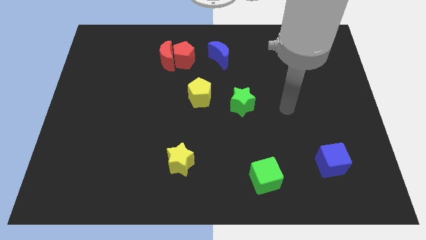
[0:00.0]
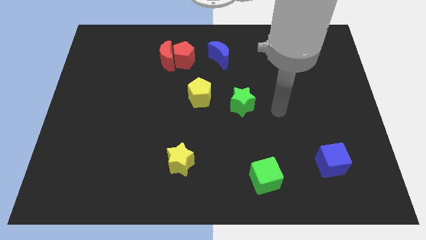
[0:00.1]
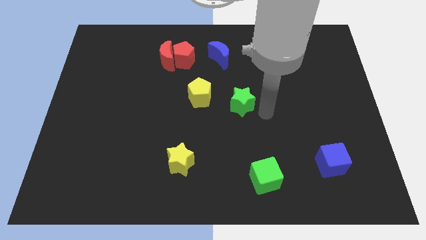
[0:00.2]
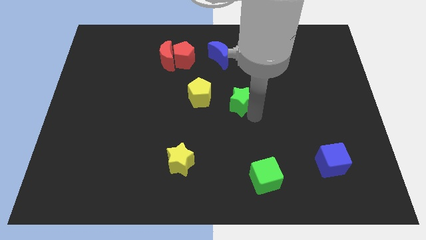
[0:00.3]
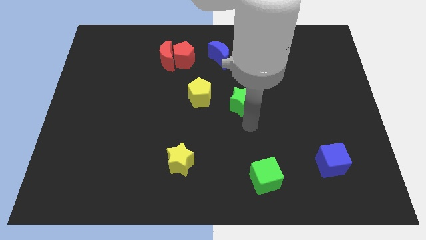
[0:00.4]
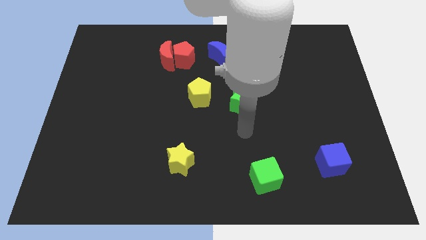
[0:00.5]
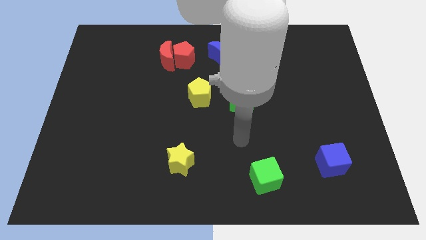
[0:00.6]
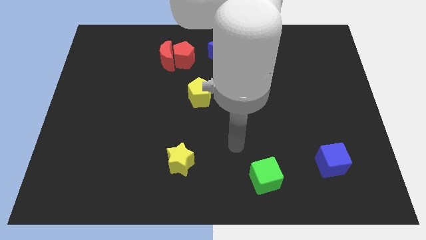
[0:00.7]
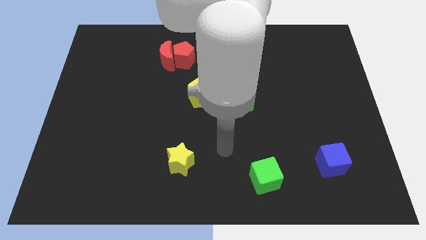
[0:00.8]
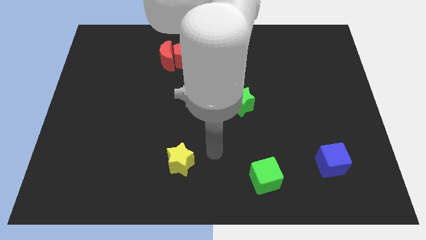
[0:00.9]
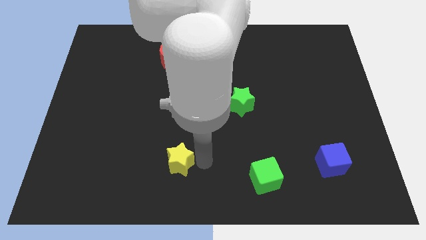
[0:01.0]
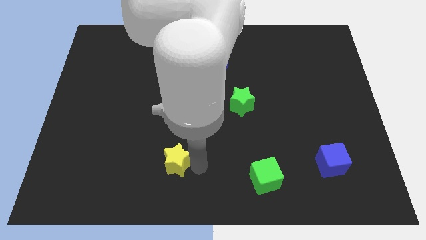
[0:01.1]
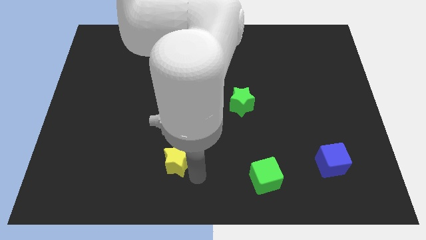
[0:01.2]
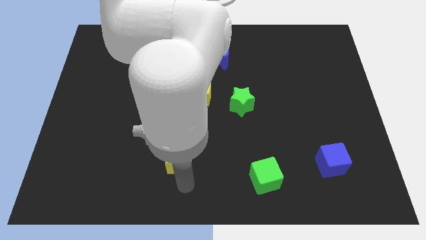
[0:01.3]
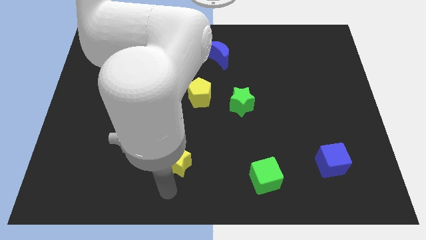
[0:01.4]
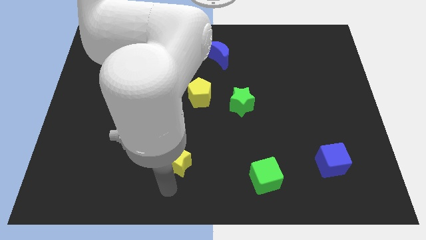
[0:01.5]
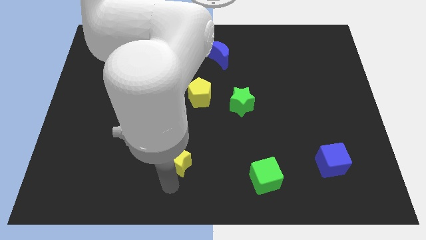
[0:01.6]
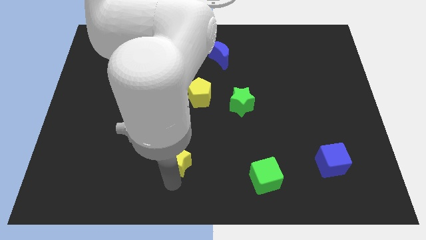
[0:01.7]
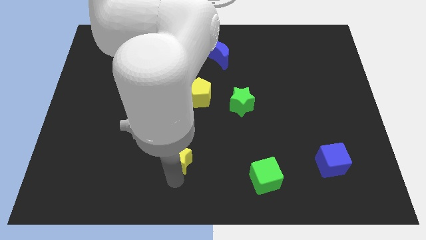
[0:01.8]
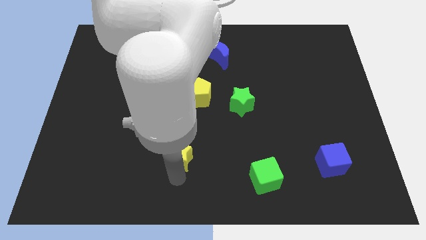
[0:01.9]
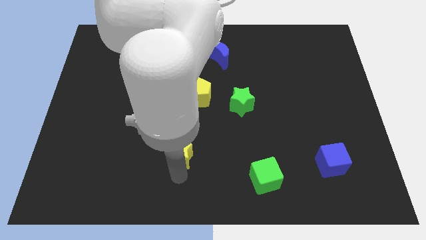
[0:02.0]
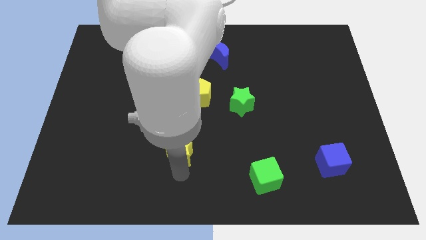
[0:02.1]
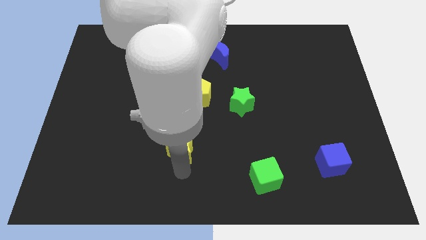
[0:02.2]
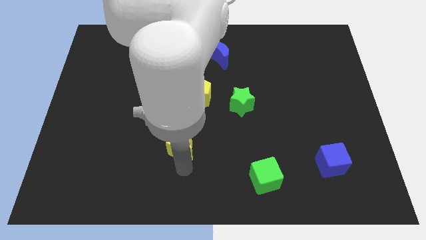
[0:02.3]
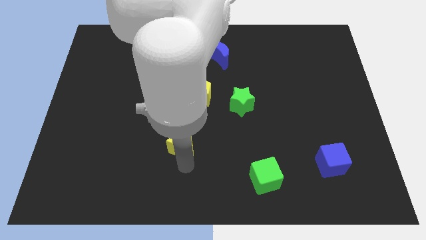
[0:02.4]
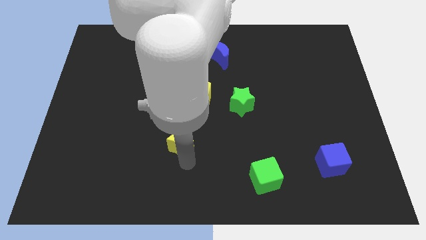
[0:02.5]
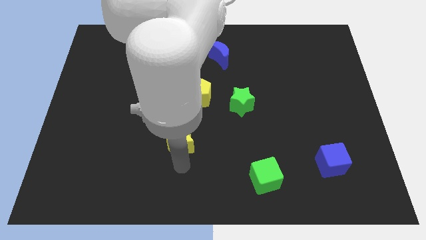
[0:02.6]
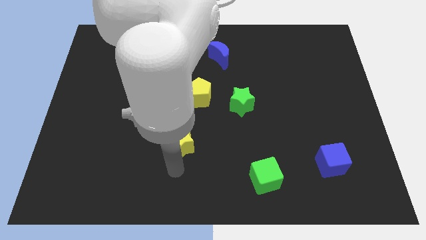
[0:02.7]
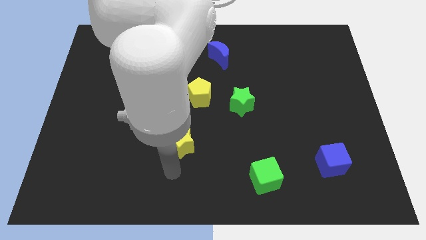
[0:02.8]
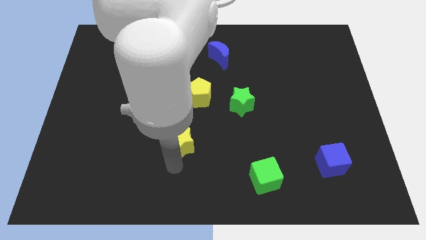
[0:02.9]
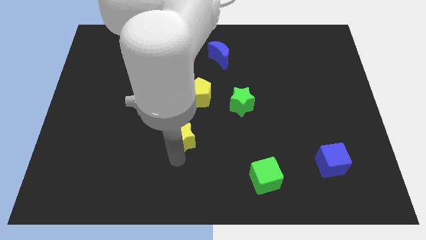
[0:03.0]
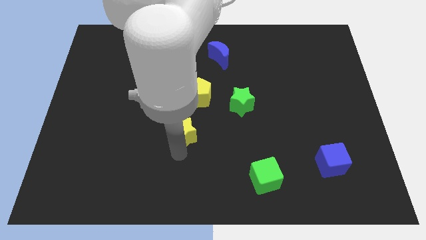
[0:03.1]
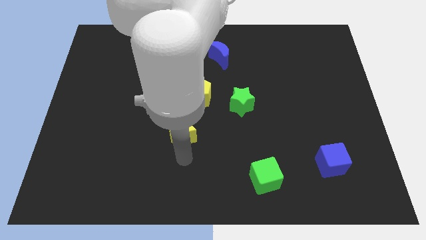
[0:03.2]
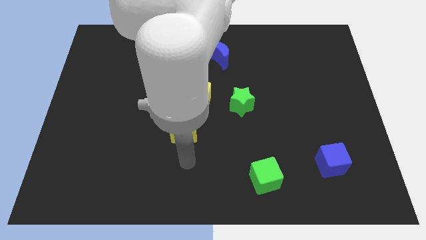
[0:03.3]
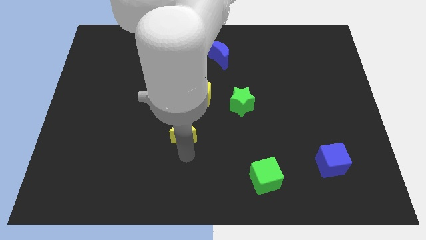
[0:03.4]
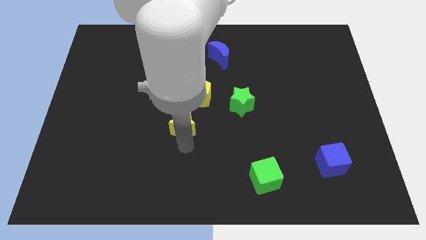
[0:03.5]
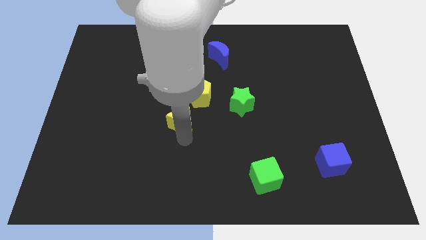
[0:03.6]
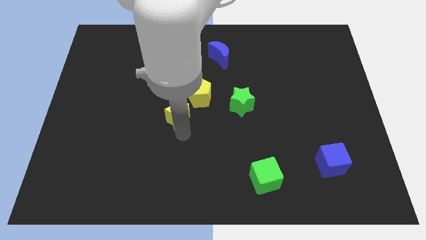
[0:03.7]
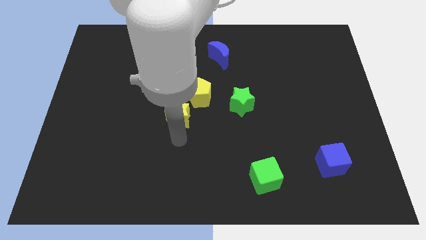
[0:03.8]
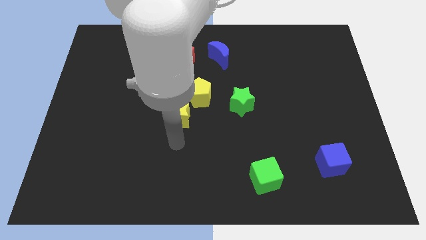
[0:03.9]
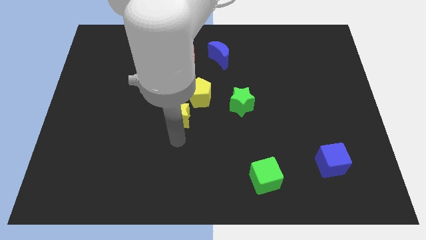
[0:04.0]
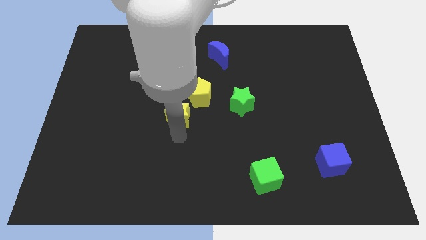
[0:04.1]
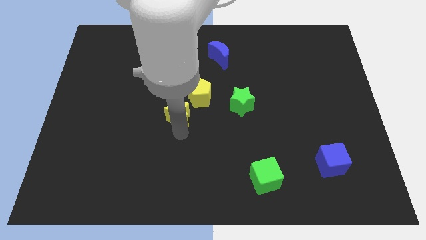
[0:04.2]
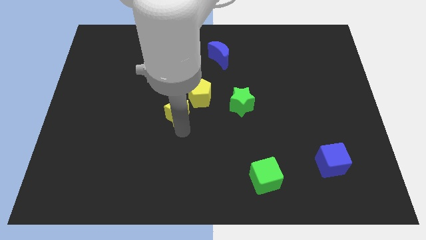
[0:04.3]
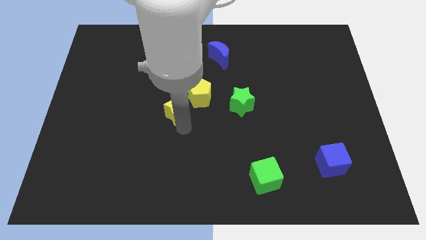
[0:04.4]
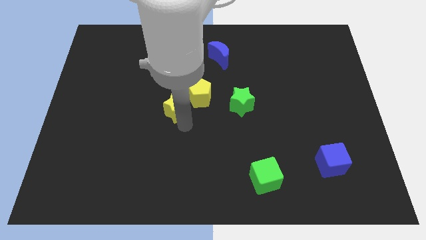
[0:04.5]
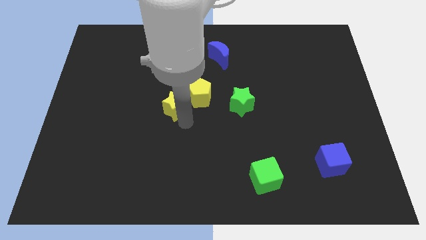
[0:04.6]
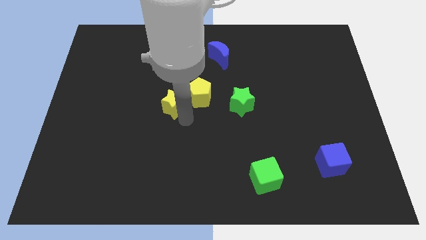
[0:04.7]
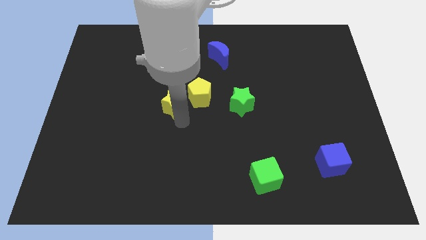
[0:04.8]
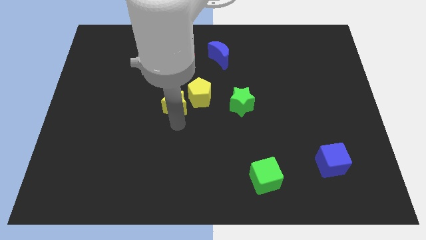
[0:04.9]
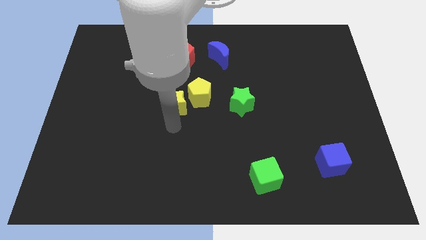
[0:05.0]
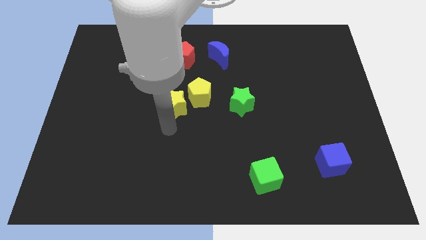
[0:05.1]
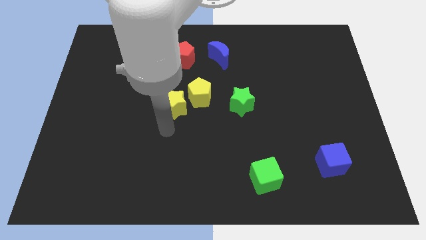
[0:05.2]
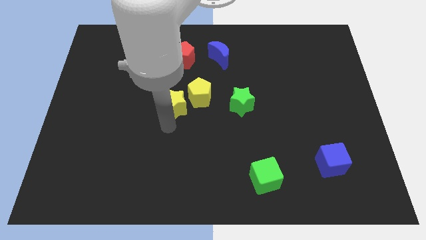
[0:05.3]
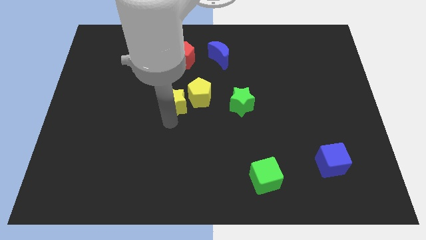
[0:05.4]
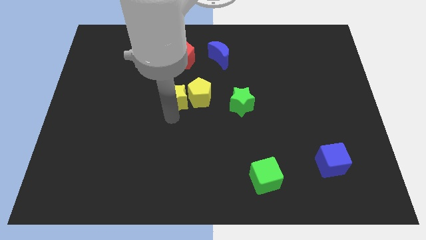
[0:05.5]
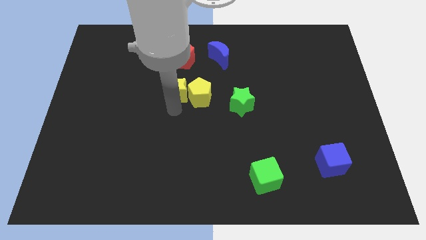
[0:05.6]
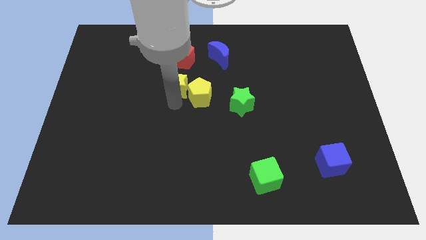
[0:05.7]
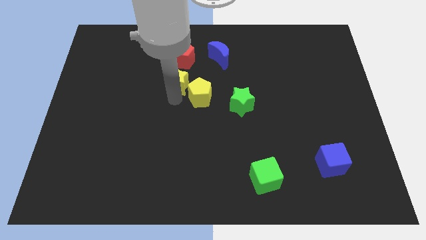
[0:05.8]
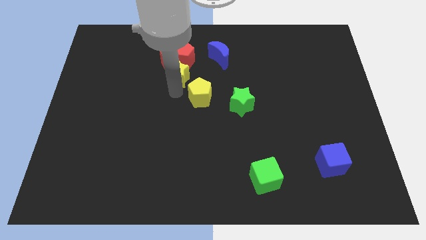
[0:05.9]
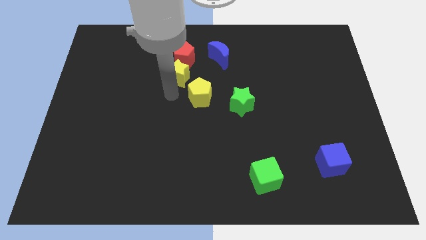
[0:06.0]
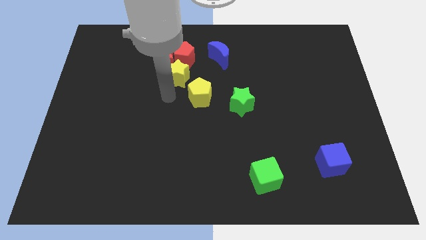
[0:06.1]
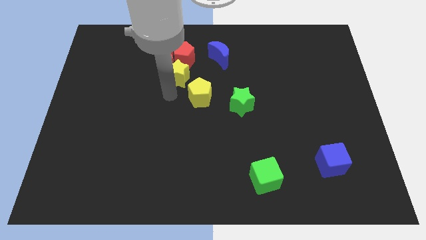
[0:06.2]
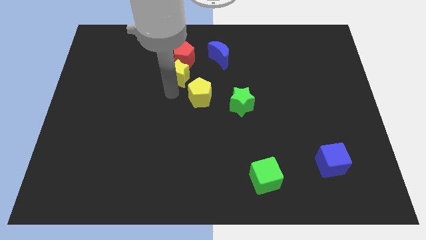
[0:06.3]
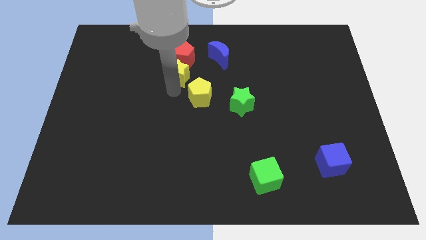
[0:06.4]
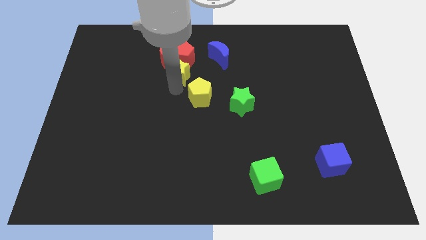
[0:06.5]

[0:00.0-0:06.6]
put the yellow star next to the red pentagon

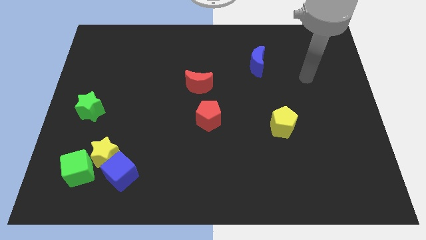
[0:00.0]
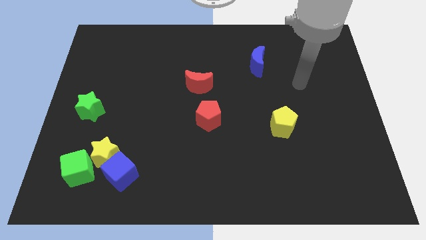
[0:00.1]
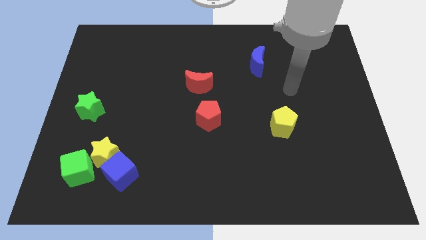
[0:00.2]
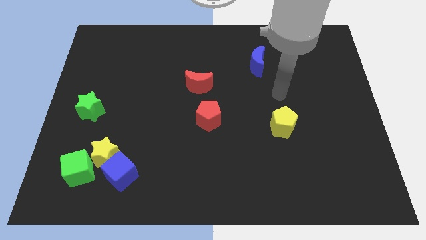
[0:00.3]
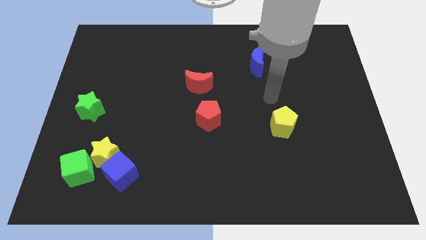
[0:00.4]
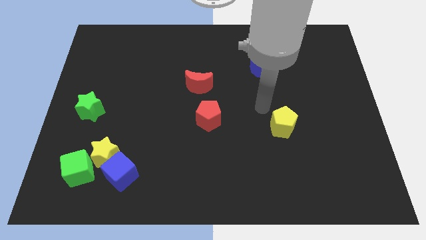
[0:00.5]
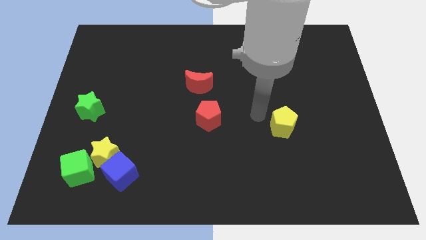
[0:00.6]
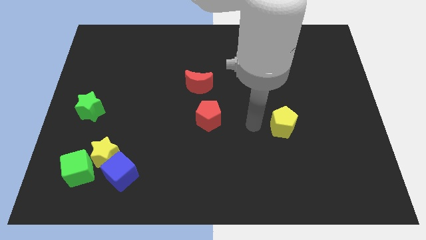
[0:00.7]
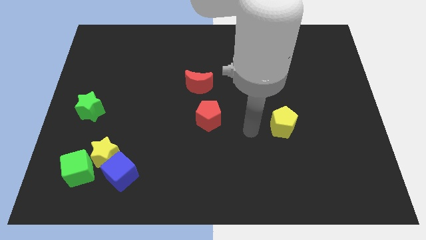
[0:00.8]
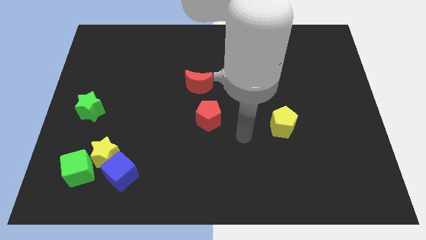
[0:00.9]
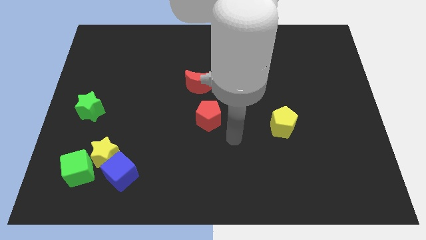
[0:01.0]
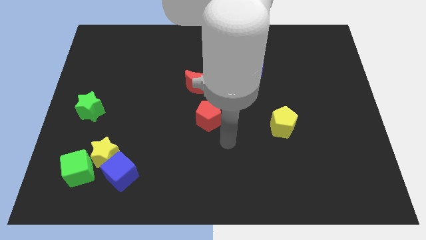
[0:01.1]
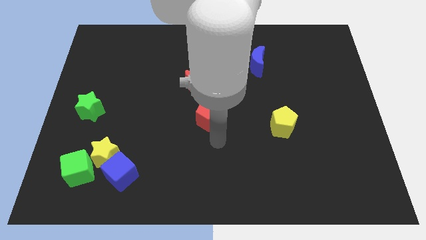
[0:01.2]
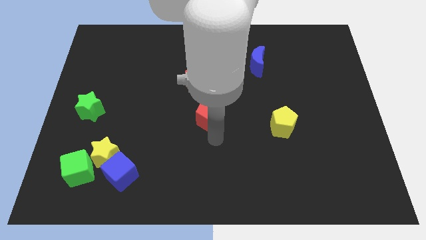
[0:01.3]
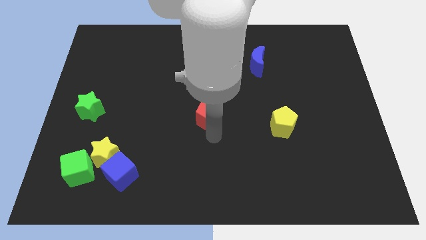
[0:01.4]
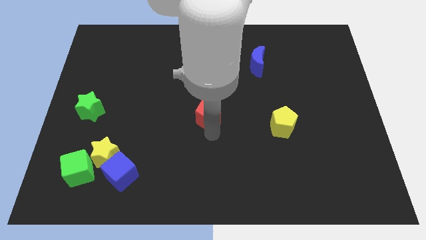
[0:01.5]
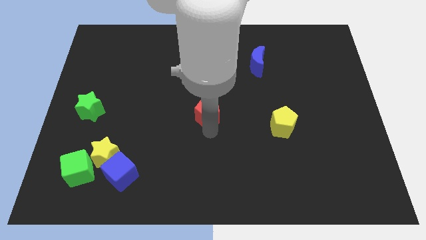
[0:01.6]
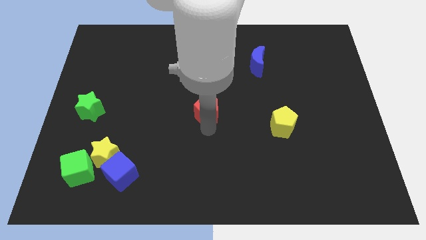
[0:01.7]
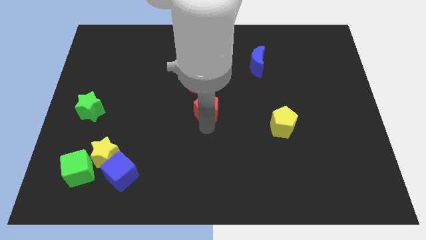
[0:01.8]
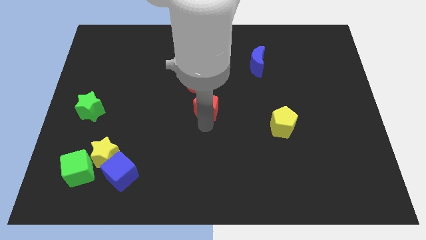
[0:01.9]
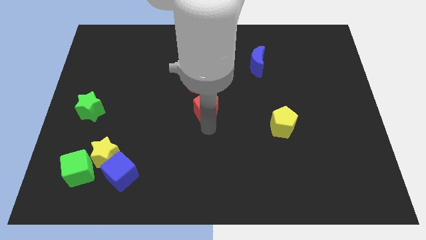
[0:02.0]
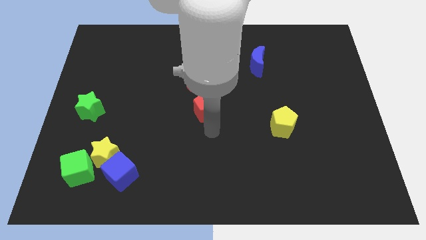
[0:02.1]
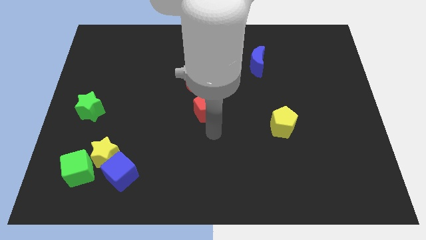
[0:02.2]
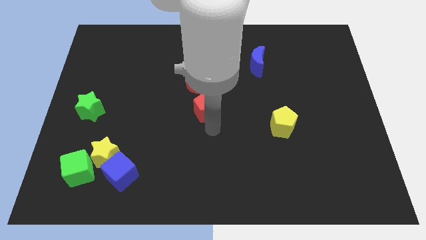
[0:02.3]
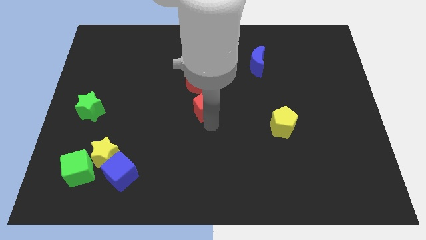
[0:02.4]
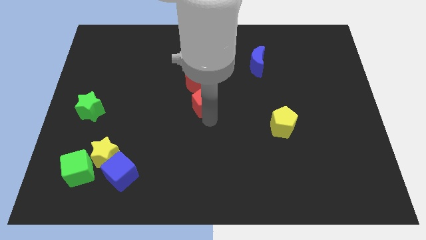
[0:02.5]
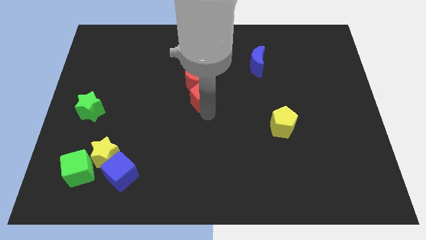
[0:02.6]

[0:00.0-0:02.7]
slide the red pentagon next to the red moon
